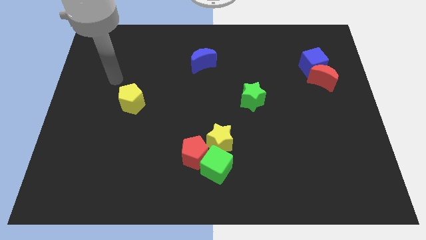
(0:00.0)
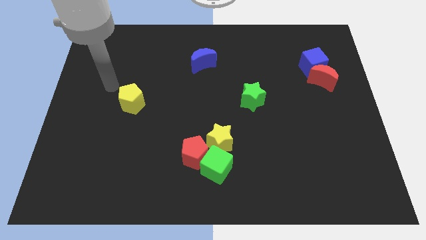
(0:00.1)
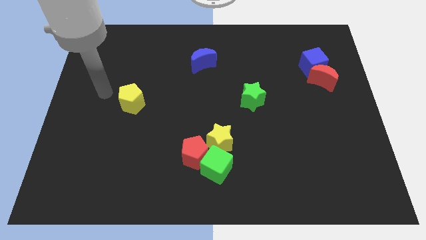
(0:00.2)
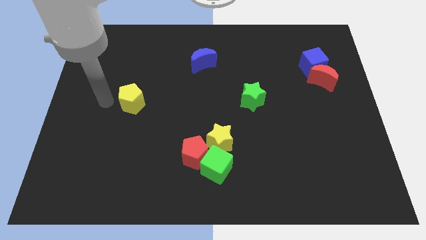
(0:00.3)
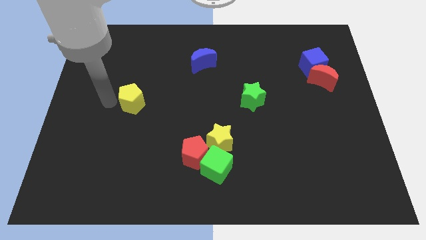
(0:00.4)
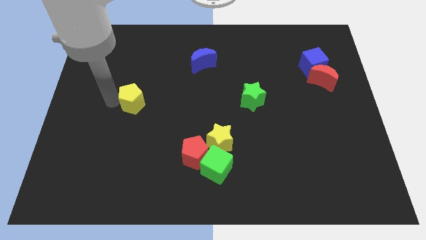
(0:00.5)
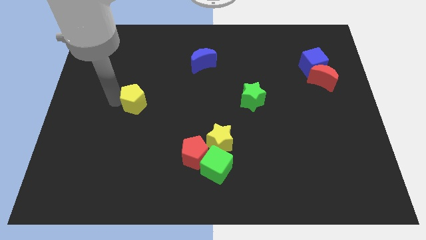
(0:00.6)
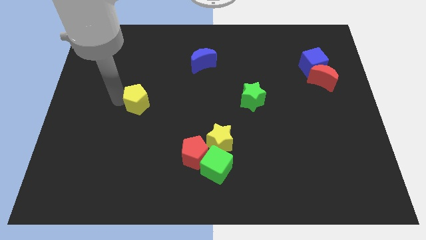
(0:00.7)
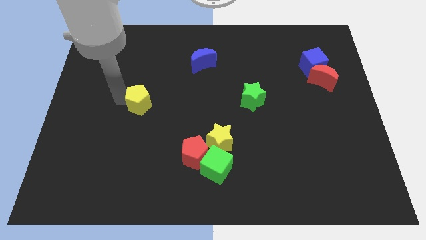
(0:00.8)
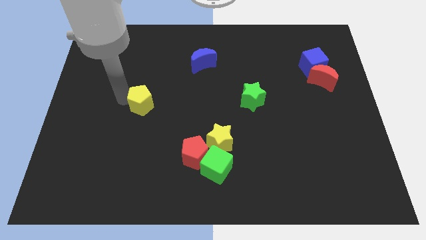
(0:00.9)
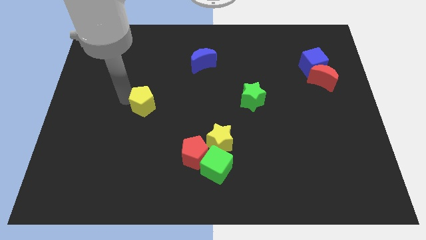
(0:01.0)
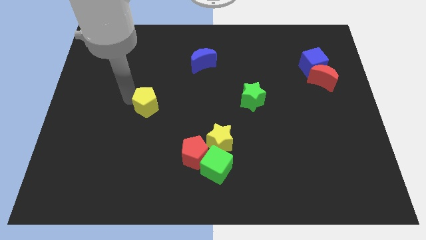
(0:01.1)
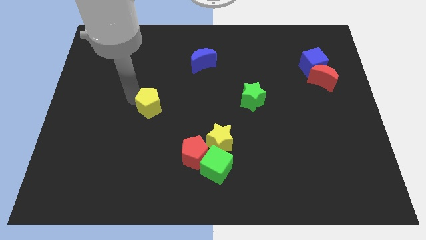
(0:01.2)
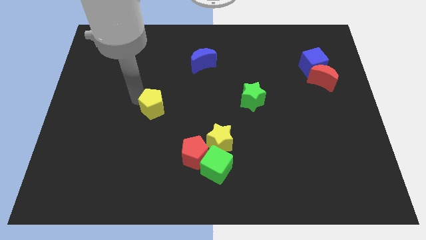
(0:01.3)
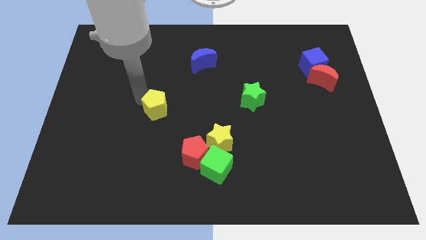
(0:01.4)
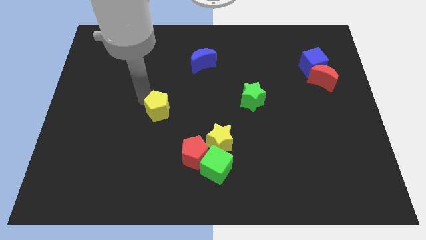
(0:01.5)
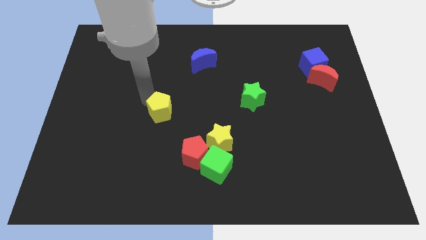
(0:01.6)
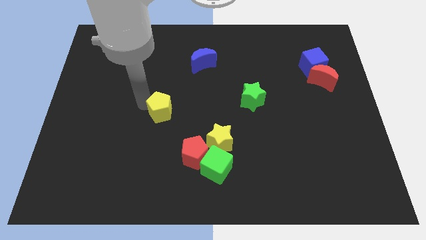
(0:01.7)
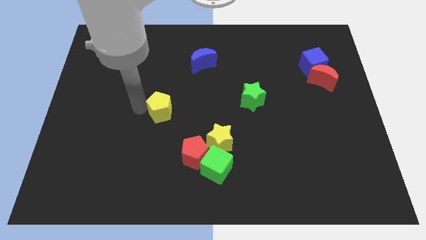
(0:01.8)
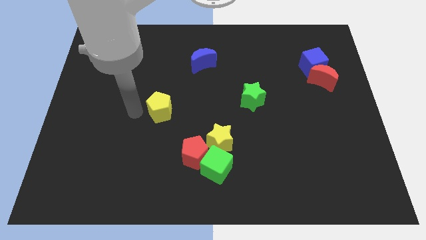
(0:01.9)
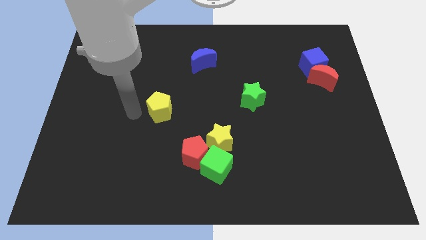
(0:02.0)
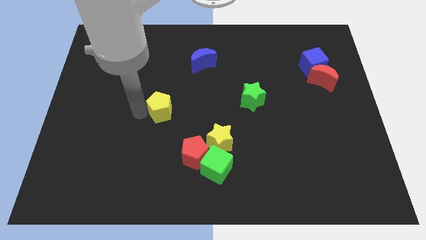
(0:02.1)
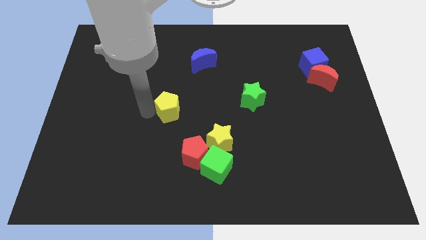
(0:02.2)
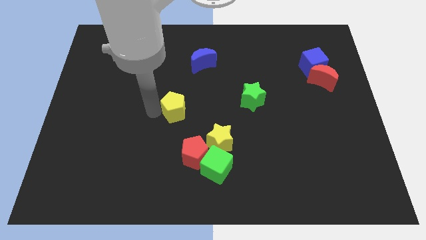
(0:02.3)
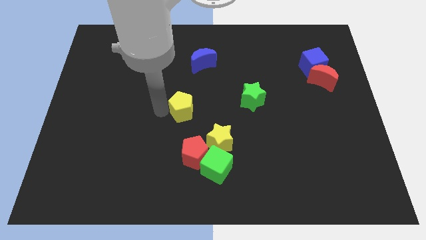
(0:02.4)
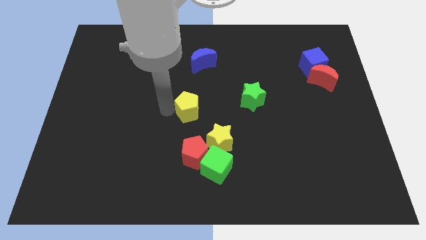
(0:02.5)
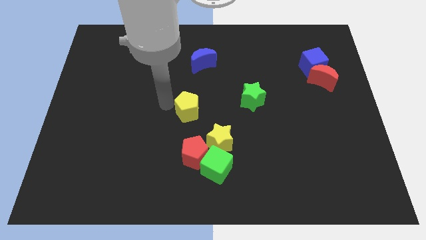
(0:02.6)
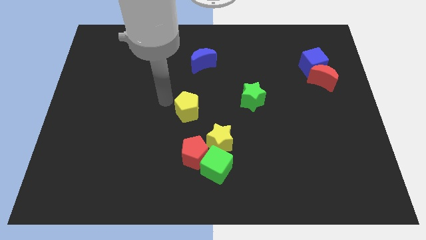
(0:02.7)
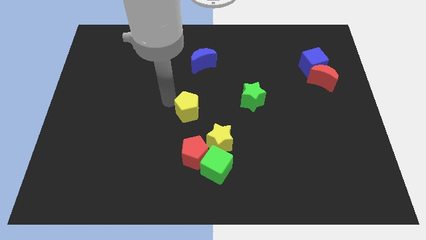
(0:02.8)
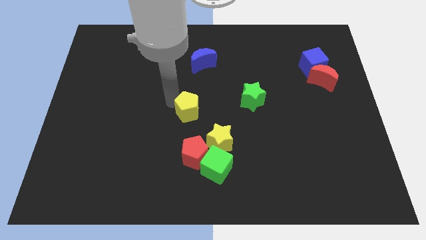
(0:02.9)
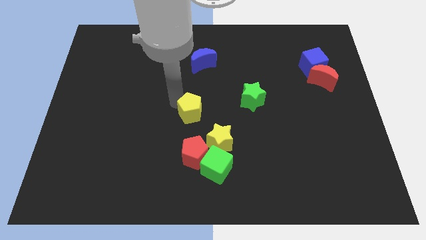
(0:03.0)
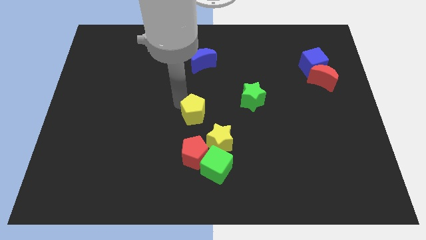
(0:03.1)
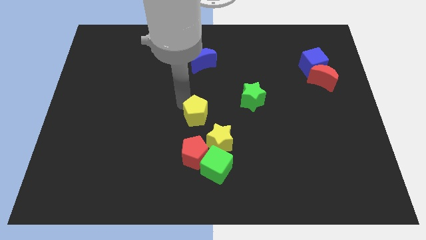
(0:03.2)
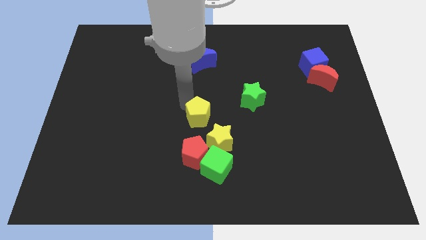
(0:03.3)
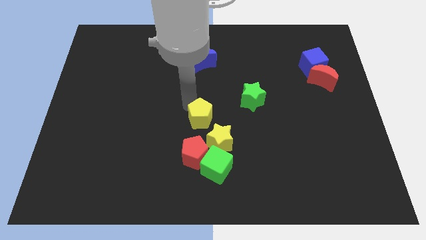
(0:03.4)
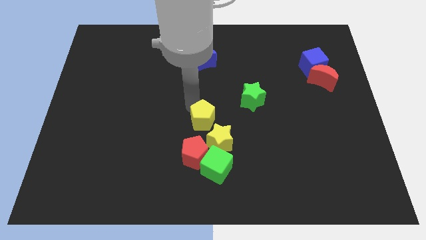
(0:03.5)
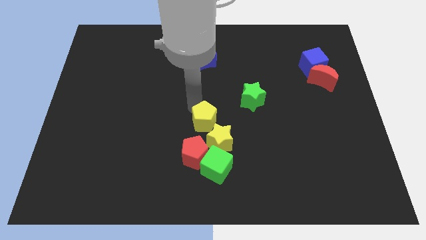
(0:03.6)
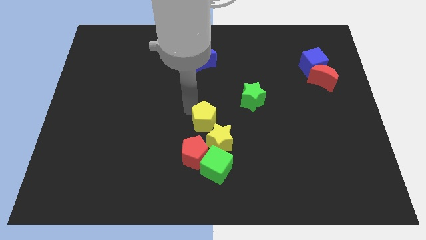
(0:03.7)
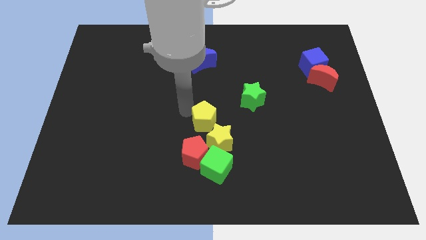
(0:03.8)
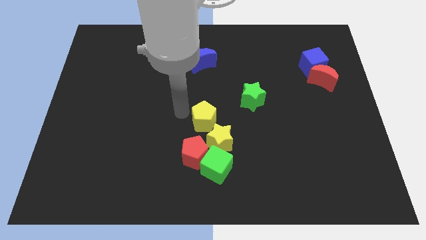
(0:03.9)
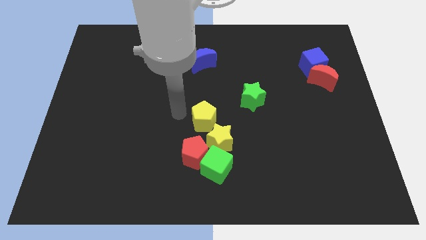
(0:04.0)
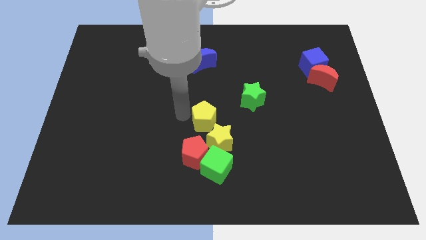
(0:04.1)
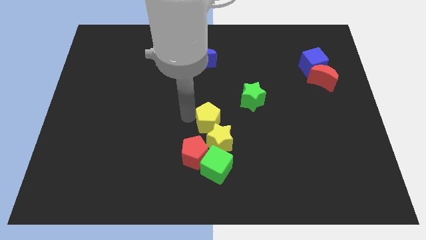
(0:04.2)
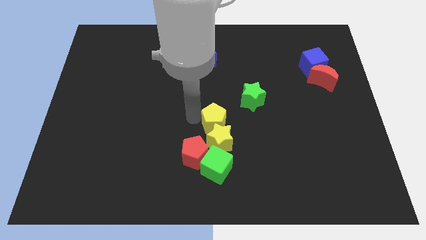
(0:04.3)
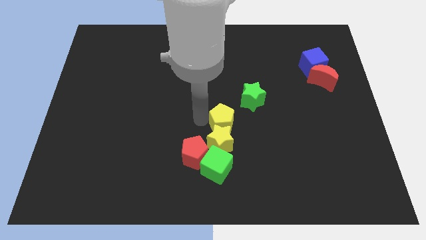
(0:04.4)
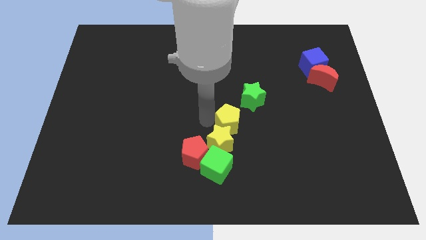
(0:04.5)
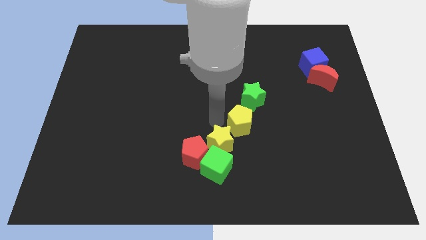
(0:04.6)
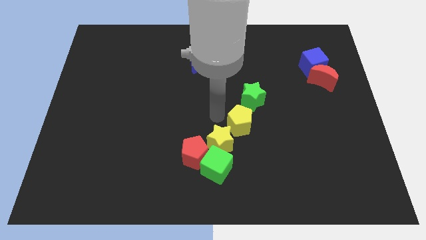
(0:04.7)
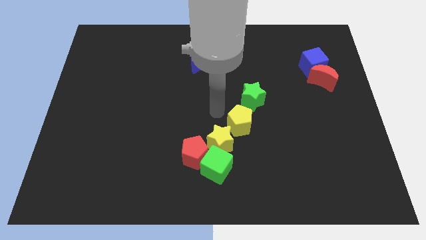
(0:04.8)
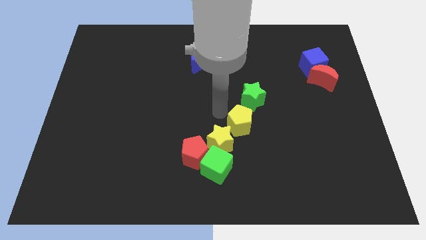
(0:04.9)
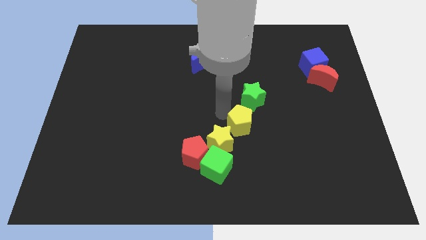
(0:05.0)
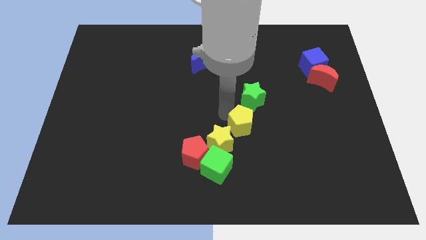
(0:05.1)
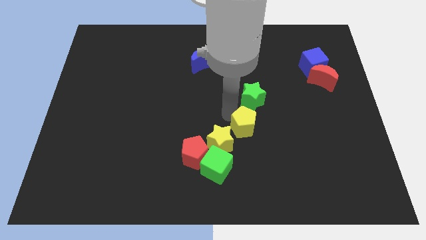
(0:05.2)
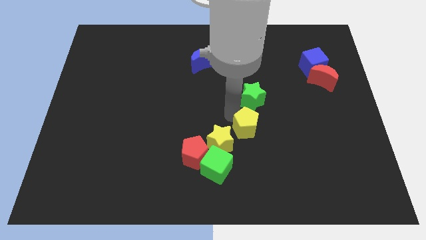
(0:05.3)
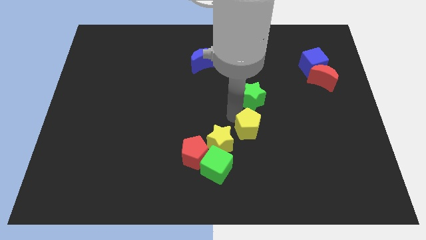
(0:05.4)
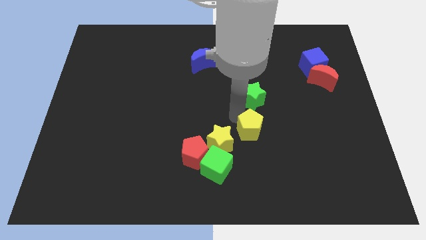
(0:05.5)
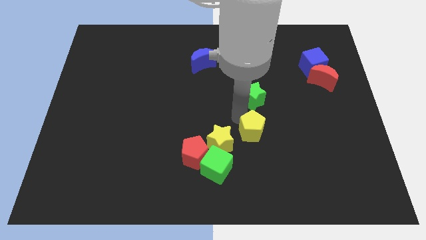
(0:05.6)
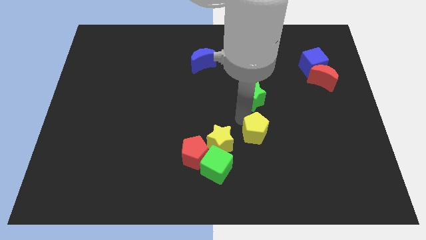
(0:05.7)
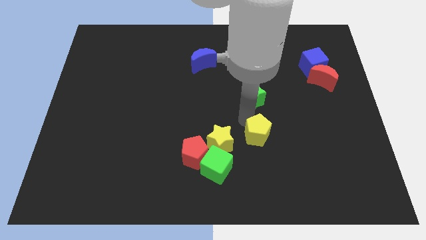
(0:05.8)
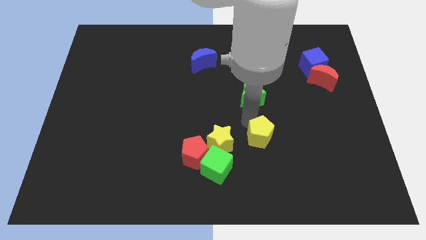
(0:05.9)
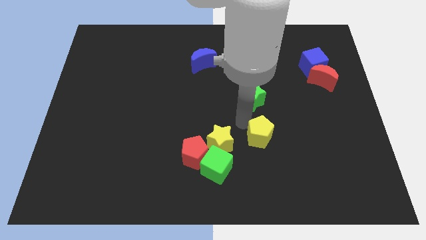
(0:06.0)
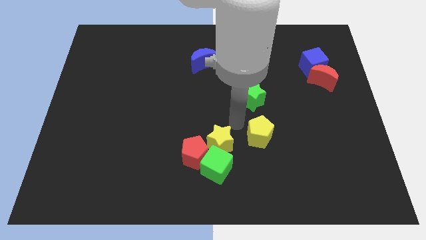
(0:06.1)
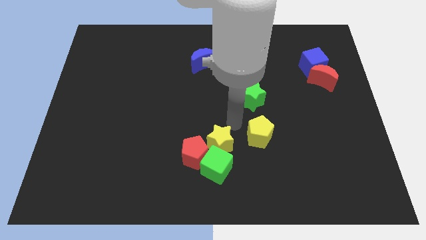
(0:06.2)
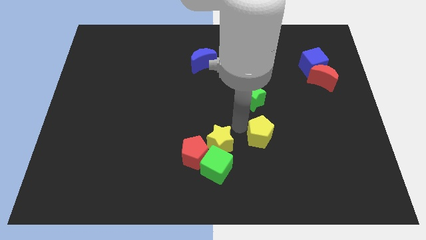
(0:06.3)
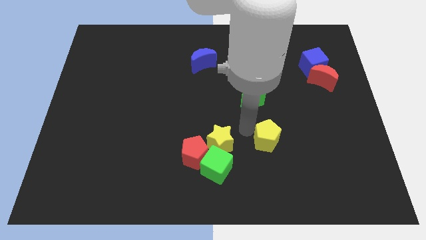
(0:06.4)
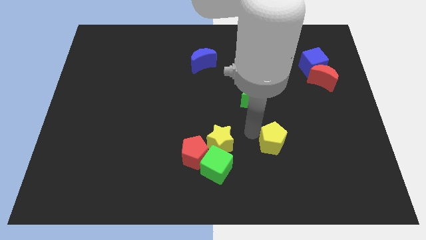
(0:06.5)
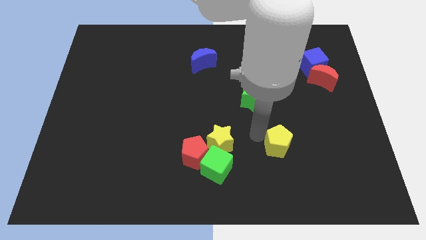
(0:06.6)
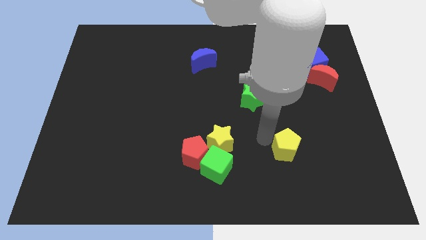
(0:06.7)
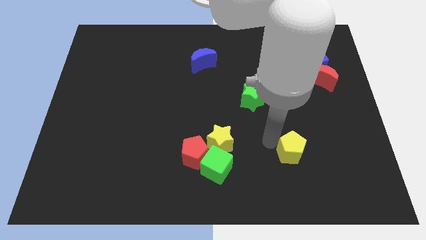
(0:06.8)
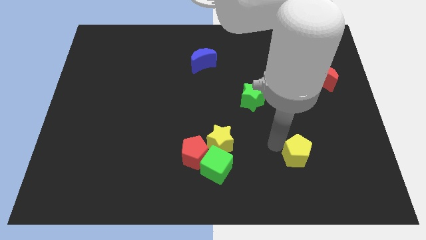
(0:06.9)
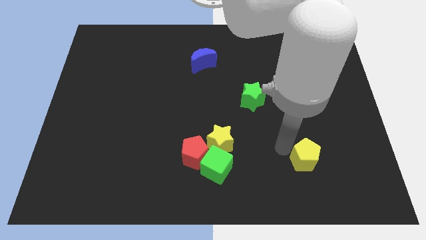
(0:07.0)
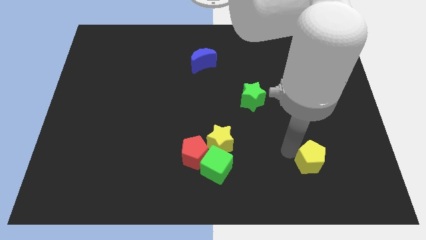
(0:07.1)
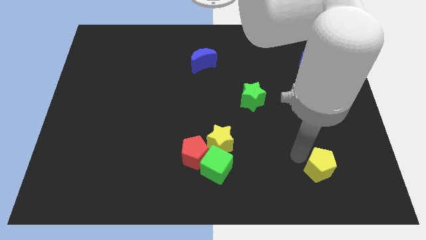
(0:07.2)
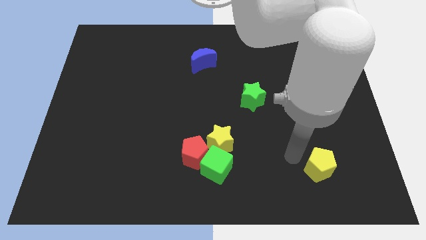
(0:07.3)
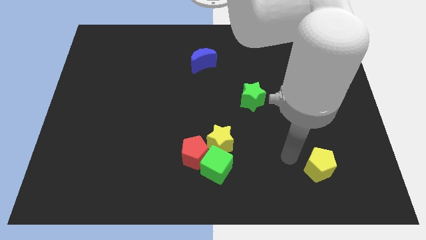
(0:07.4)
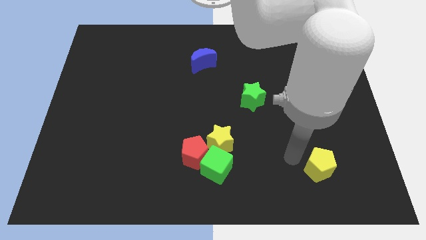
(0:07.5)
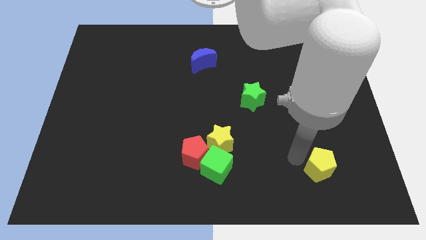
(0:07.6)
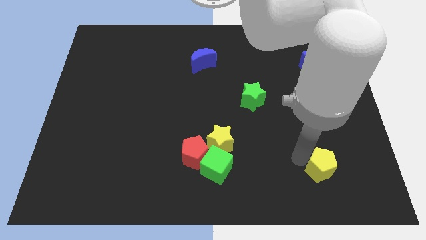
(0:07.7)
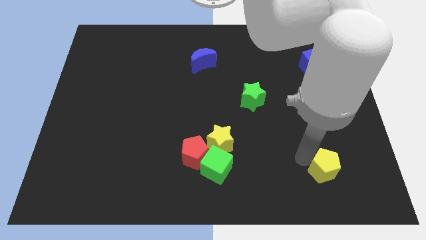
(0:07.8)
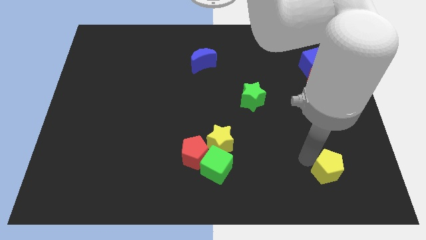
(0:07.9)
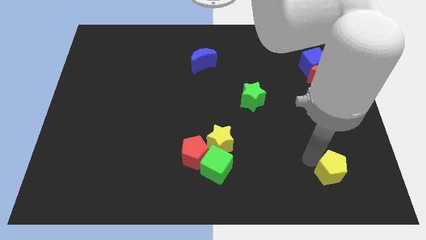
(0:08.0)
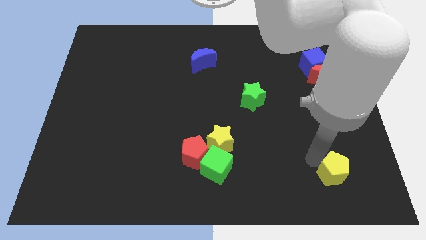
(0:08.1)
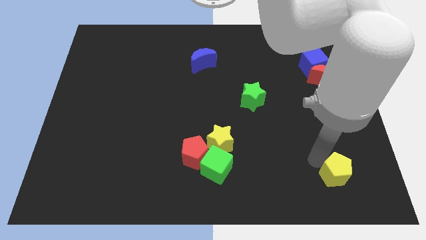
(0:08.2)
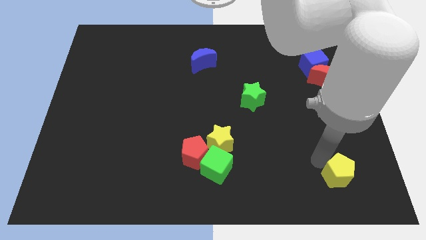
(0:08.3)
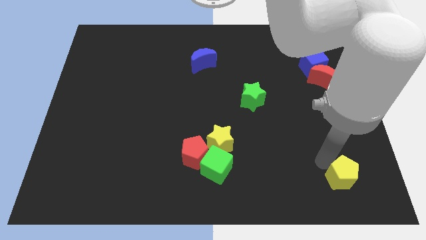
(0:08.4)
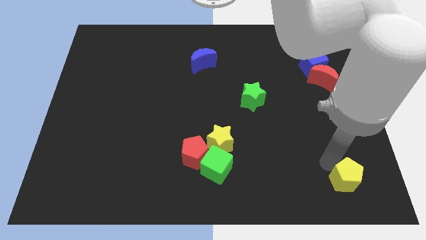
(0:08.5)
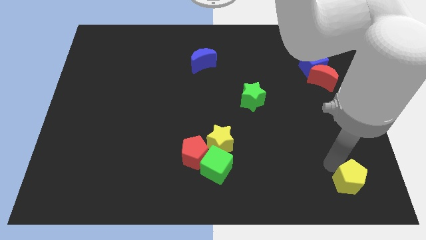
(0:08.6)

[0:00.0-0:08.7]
push the yellow pentagon to the bottom right corner
